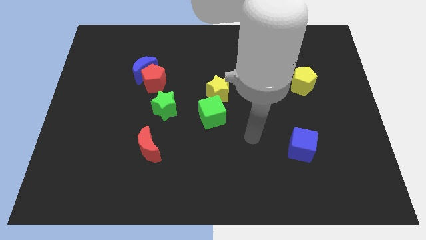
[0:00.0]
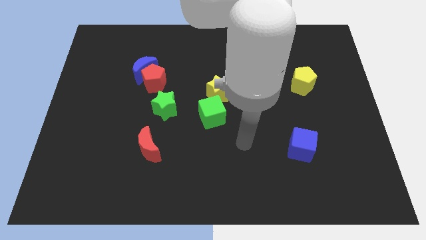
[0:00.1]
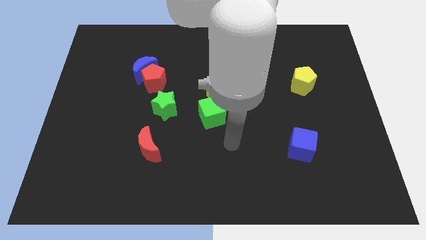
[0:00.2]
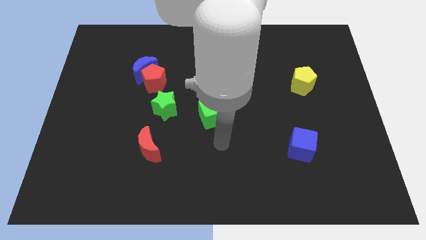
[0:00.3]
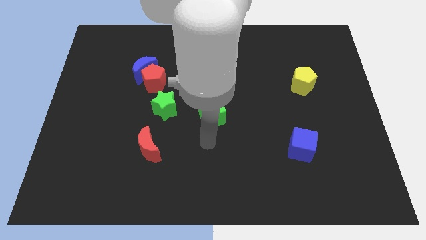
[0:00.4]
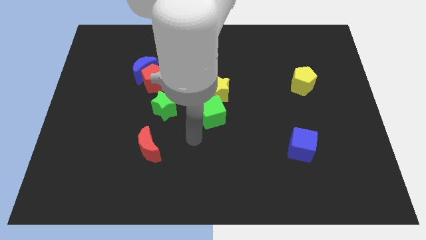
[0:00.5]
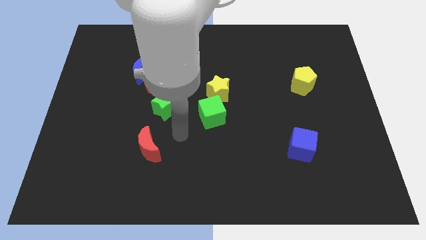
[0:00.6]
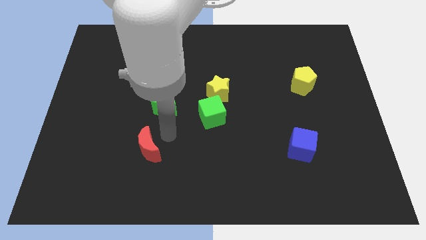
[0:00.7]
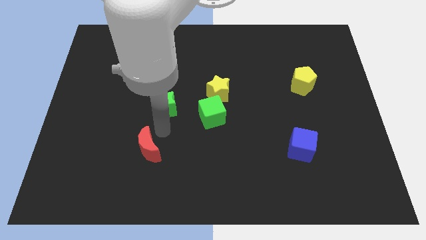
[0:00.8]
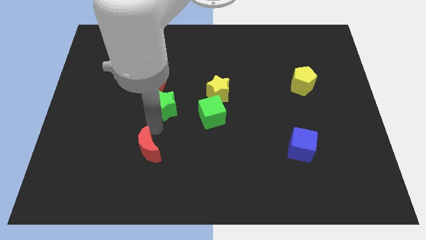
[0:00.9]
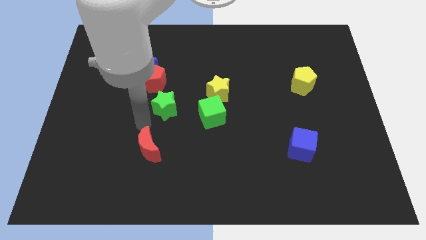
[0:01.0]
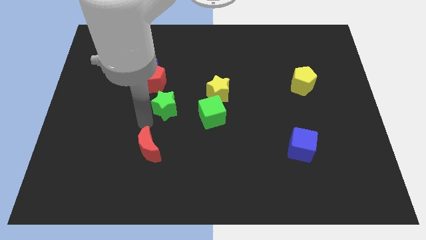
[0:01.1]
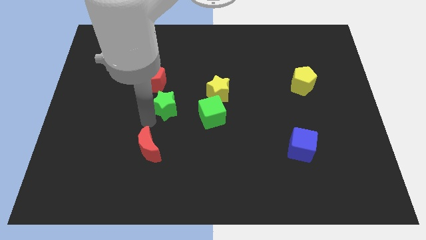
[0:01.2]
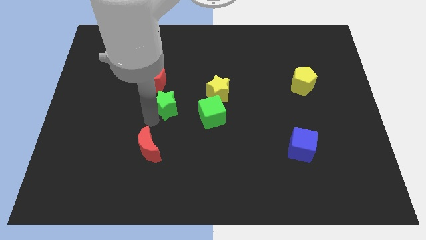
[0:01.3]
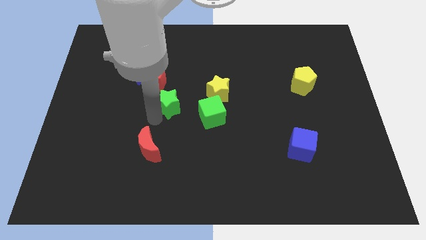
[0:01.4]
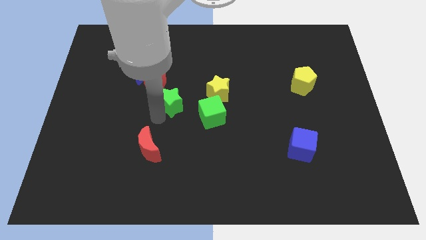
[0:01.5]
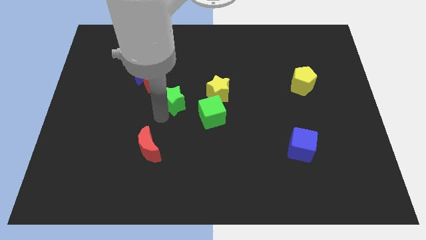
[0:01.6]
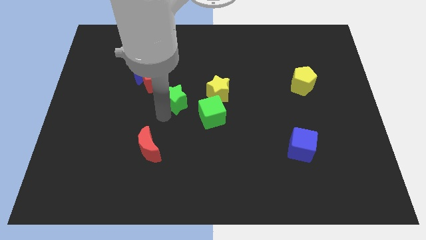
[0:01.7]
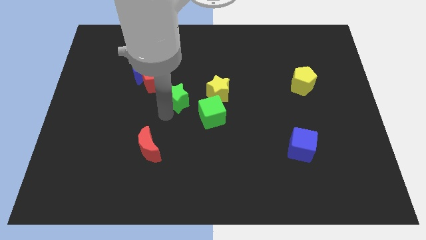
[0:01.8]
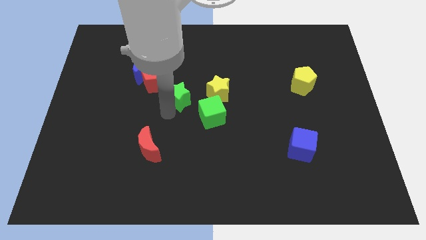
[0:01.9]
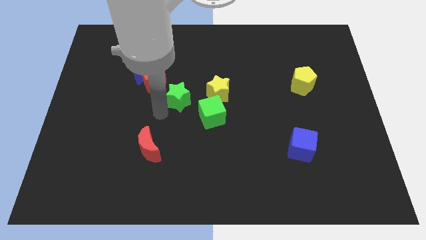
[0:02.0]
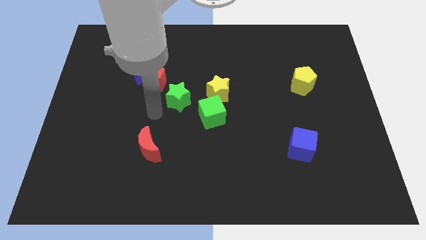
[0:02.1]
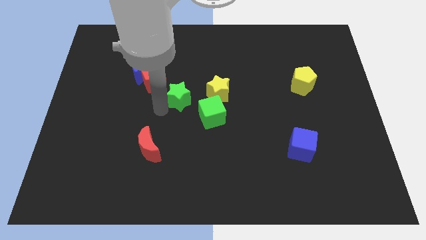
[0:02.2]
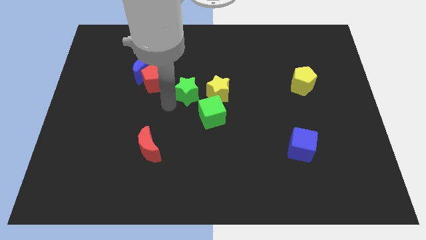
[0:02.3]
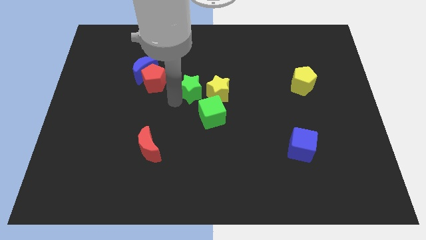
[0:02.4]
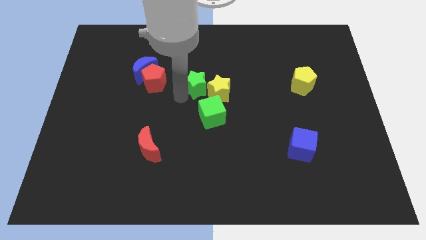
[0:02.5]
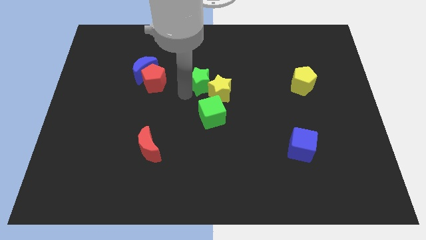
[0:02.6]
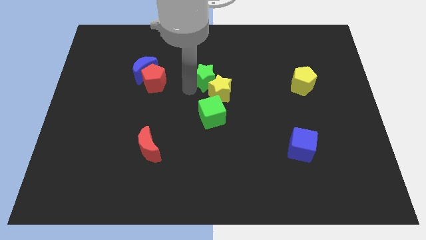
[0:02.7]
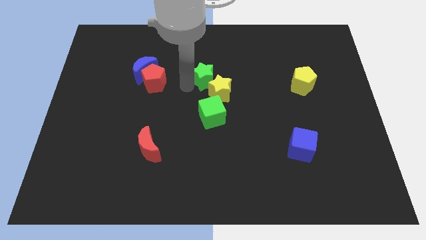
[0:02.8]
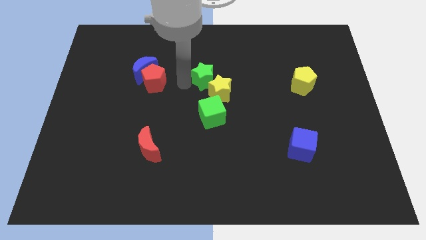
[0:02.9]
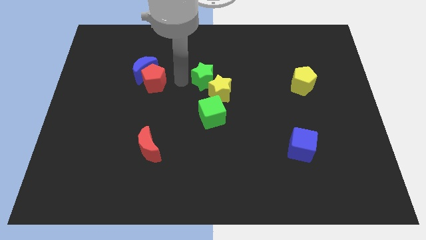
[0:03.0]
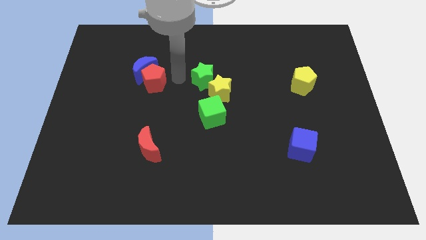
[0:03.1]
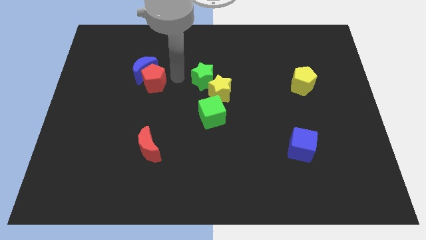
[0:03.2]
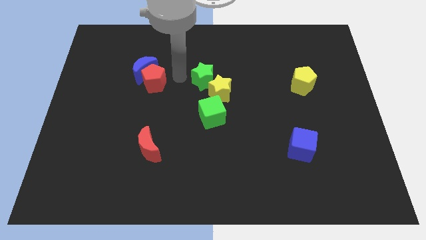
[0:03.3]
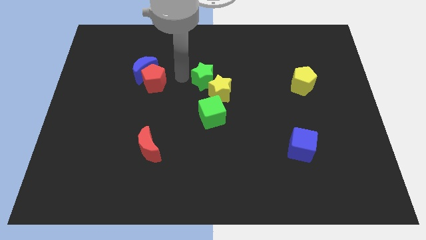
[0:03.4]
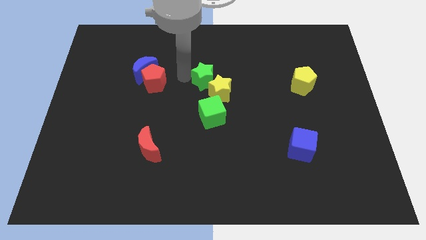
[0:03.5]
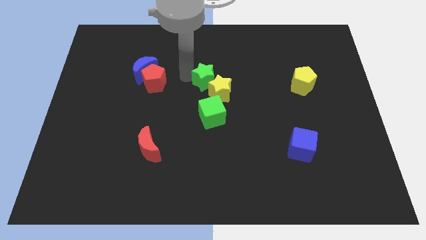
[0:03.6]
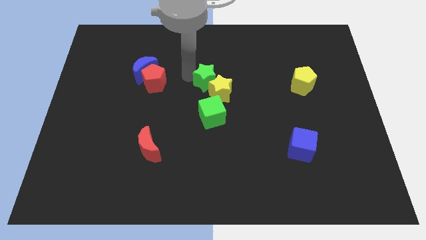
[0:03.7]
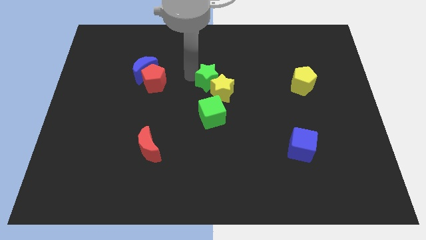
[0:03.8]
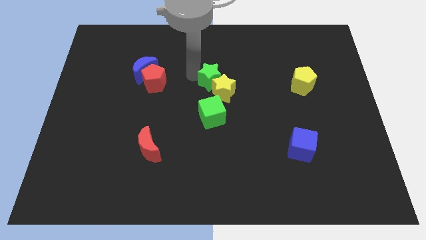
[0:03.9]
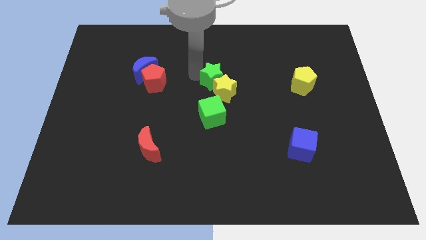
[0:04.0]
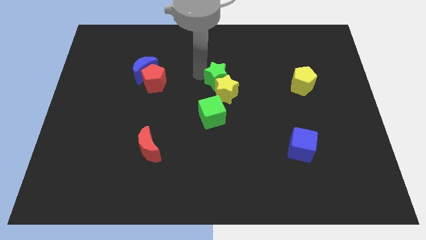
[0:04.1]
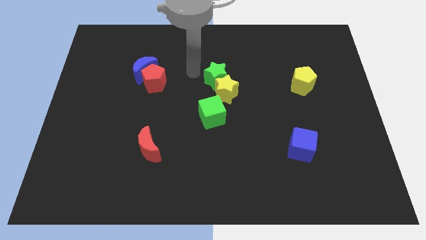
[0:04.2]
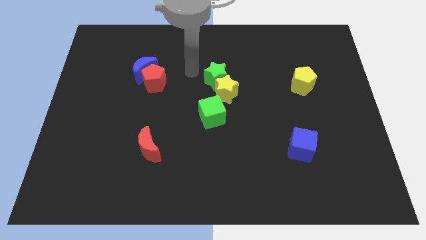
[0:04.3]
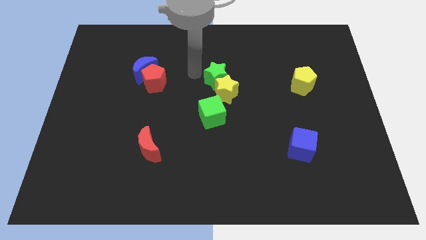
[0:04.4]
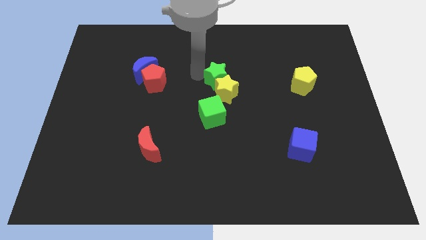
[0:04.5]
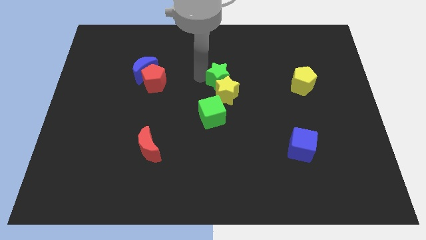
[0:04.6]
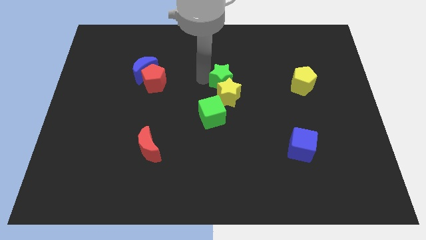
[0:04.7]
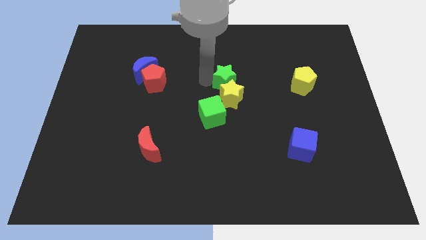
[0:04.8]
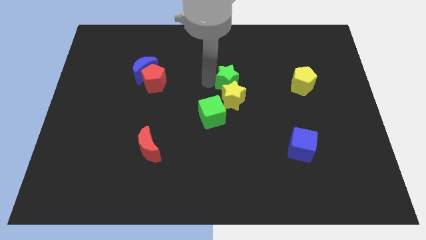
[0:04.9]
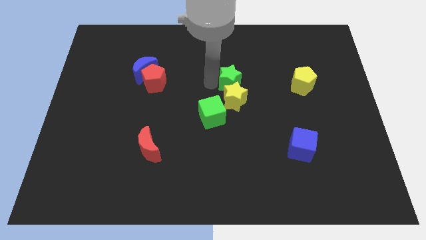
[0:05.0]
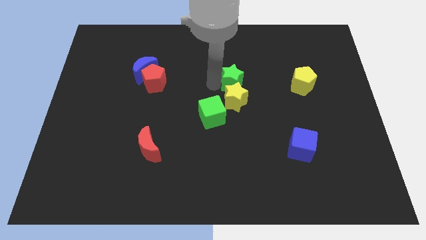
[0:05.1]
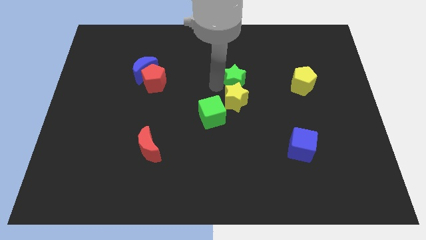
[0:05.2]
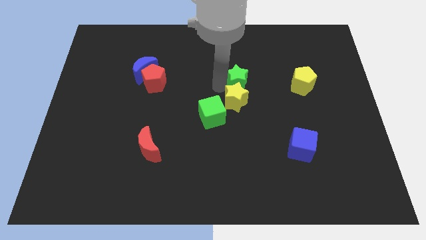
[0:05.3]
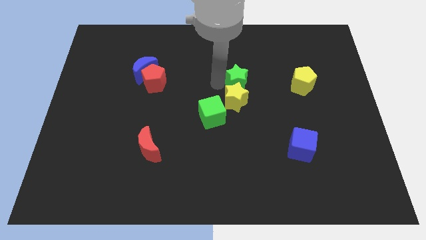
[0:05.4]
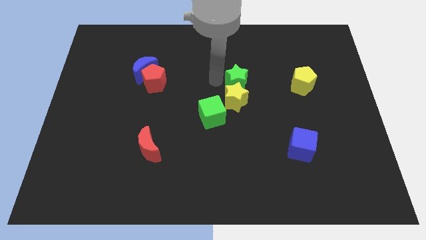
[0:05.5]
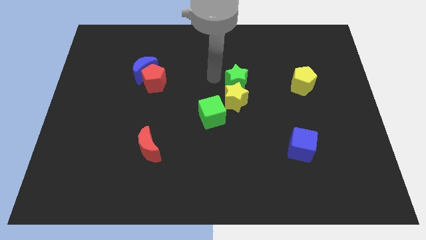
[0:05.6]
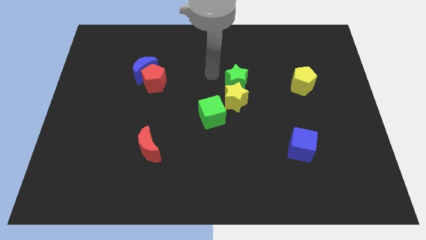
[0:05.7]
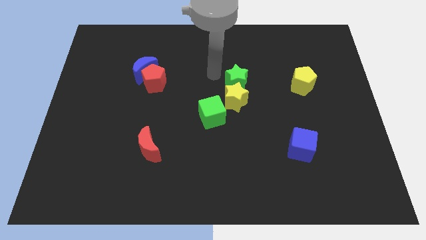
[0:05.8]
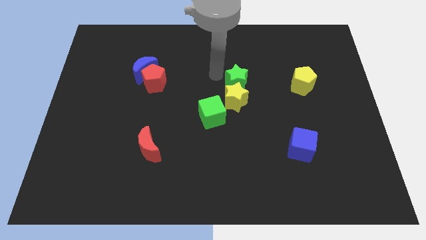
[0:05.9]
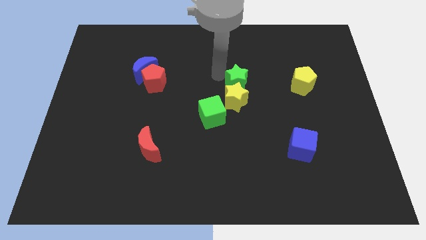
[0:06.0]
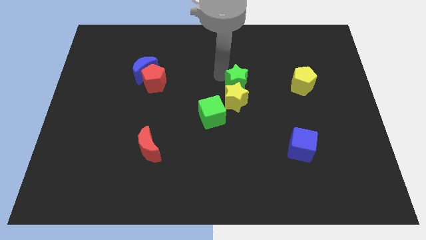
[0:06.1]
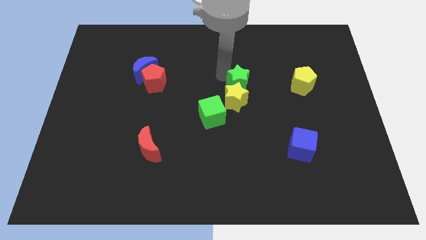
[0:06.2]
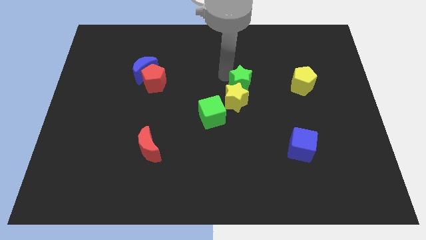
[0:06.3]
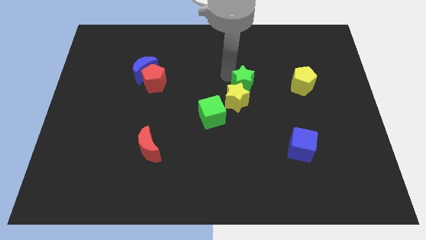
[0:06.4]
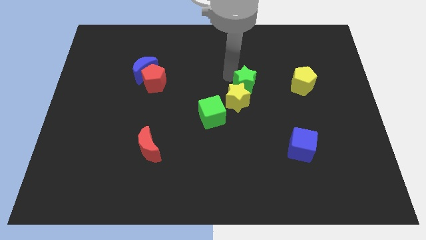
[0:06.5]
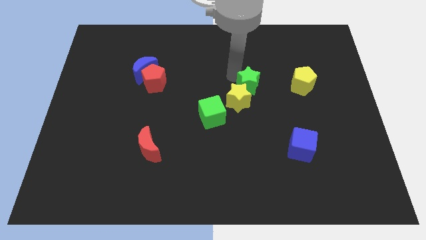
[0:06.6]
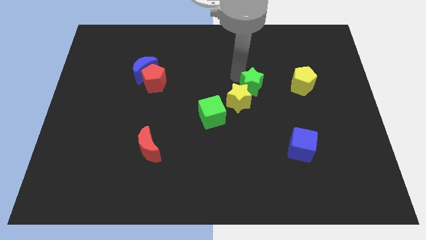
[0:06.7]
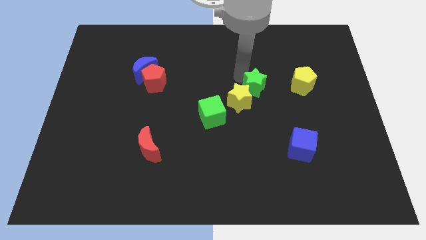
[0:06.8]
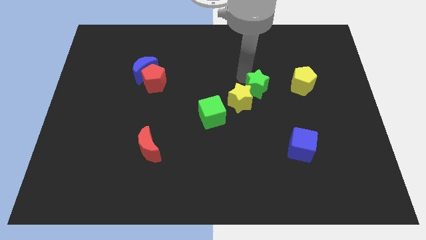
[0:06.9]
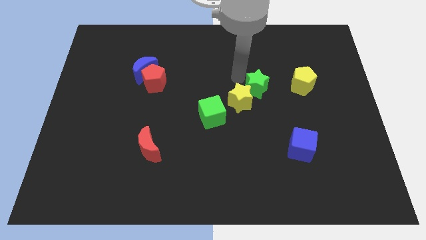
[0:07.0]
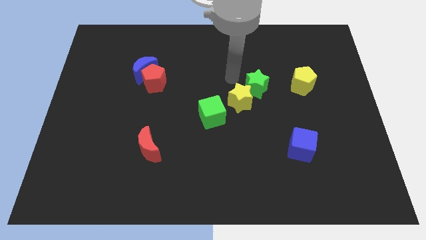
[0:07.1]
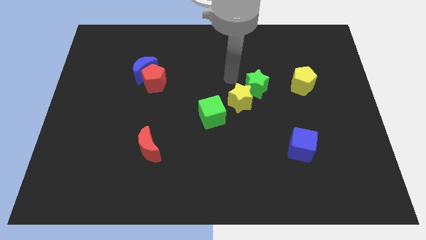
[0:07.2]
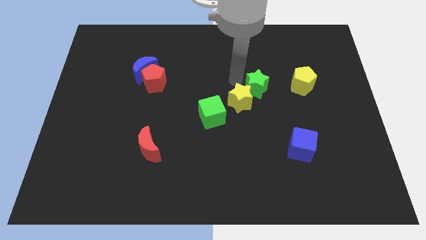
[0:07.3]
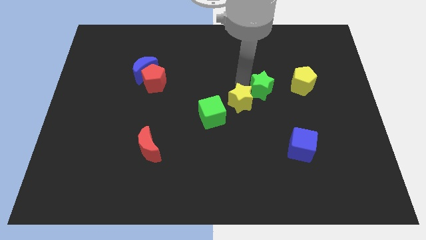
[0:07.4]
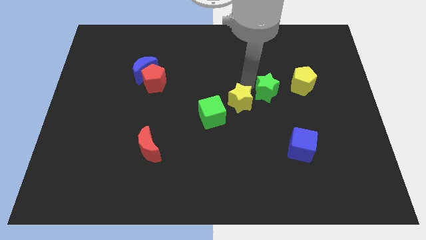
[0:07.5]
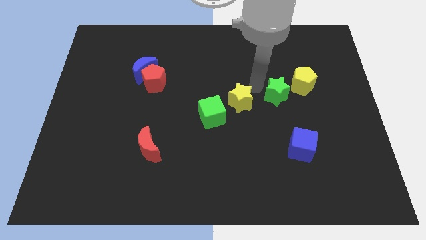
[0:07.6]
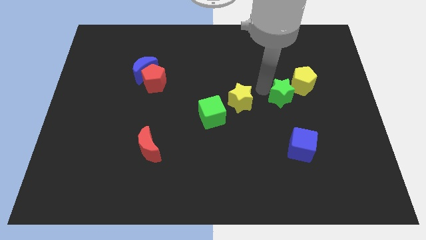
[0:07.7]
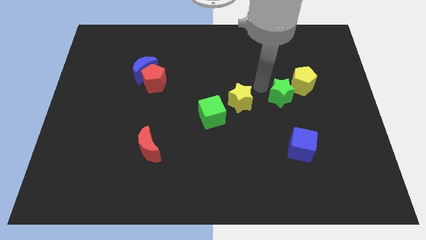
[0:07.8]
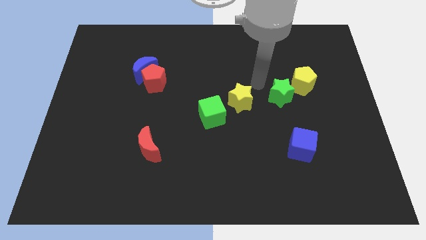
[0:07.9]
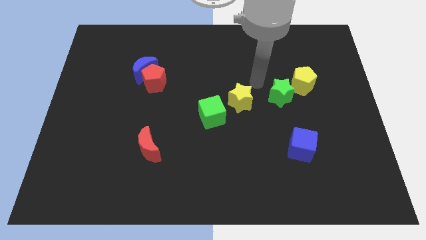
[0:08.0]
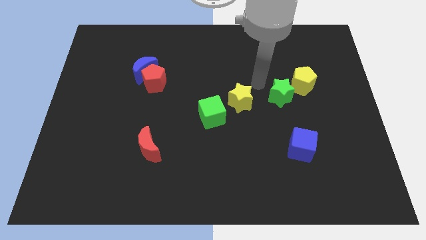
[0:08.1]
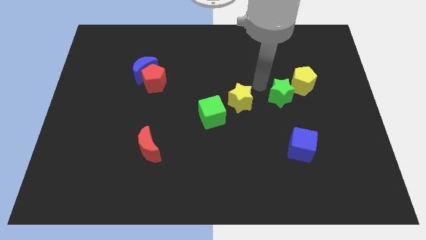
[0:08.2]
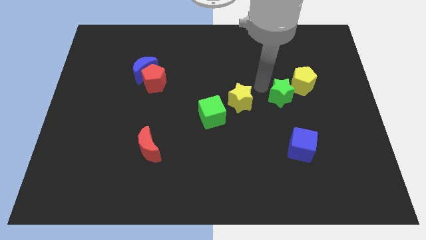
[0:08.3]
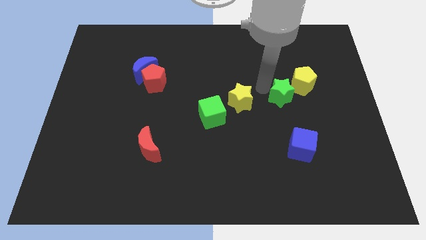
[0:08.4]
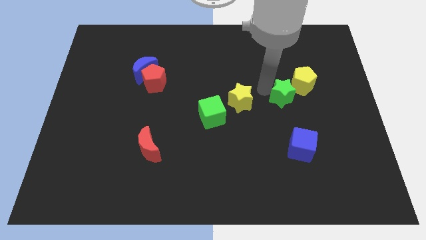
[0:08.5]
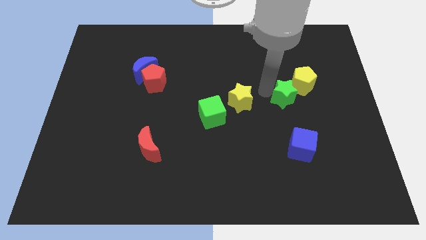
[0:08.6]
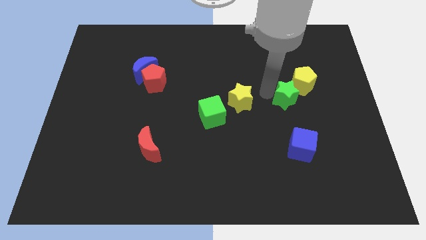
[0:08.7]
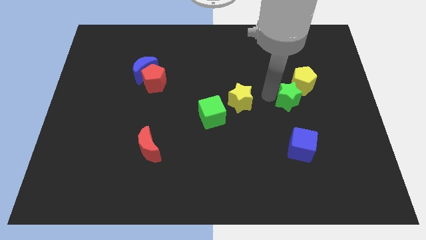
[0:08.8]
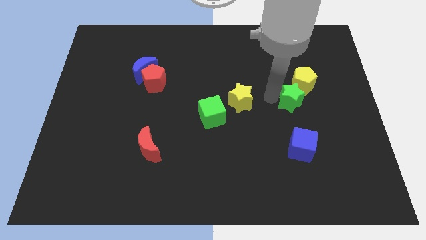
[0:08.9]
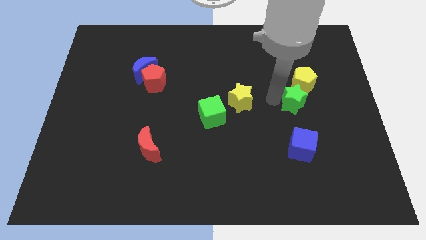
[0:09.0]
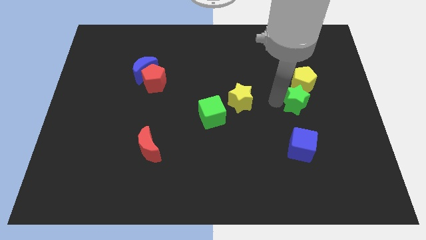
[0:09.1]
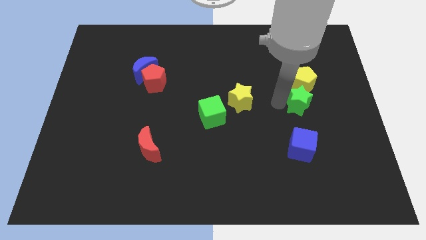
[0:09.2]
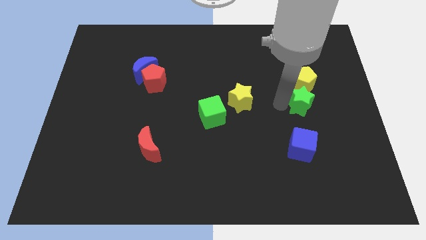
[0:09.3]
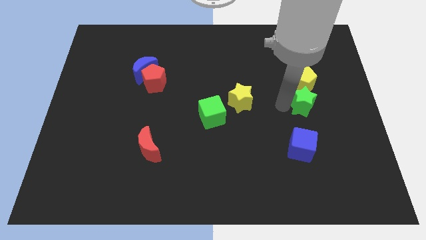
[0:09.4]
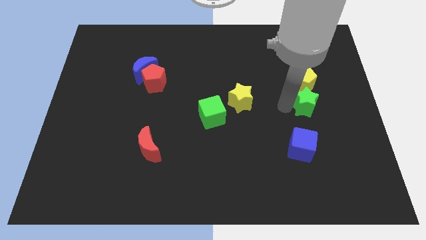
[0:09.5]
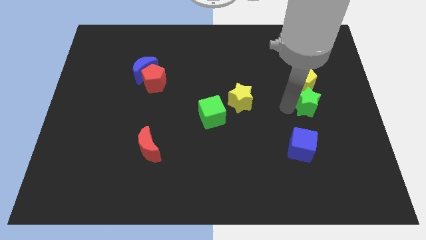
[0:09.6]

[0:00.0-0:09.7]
move the green star to the bottom right of the yellow pentagon
